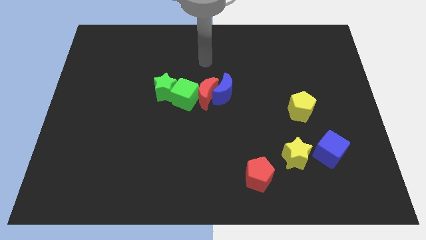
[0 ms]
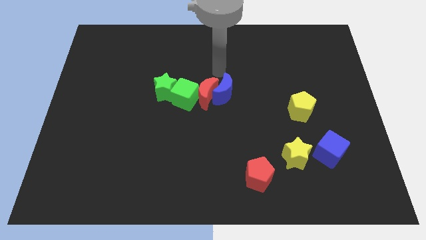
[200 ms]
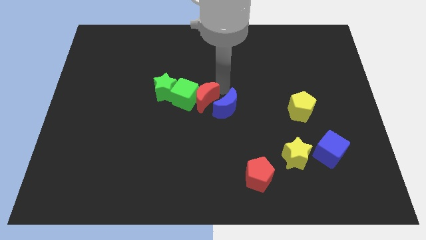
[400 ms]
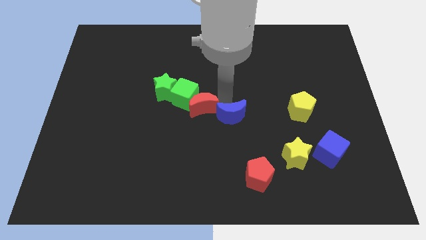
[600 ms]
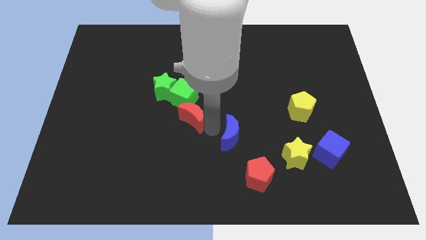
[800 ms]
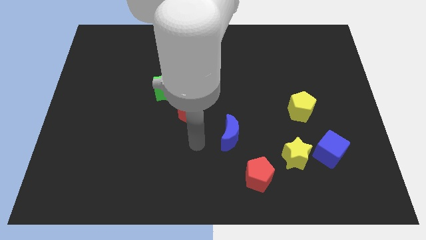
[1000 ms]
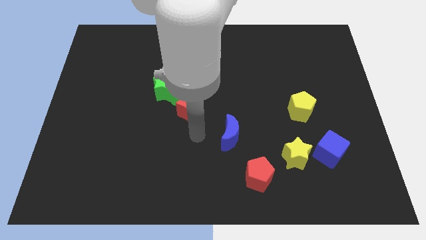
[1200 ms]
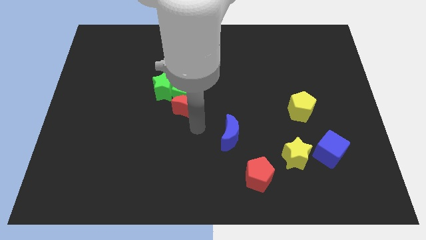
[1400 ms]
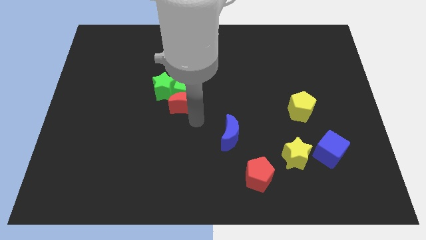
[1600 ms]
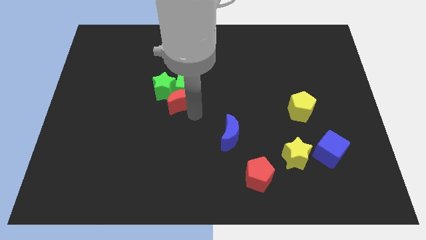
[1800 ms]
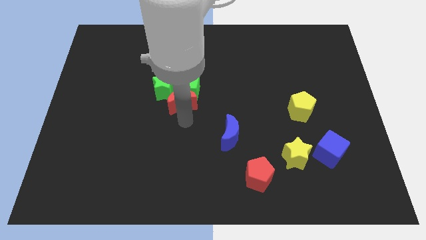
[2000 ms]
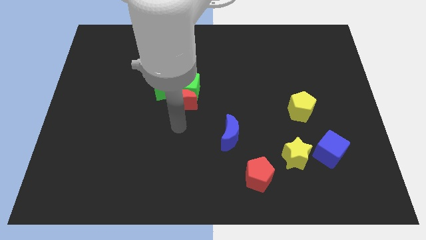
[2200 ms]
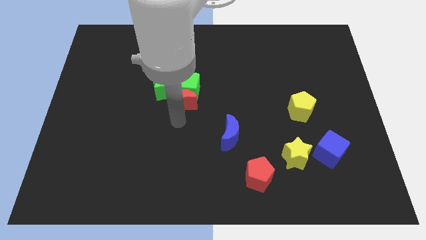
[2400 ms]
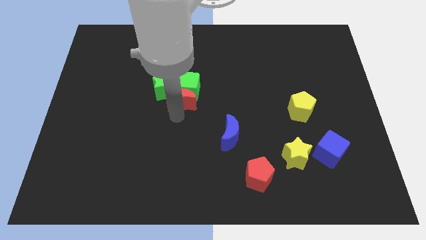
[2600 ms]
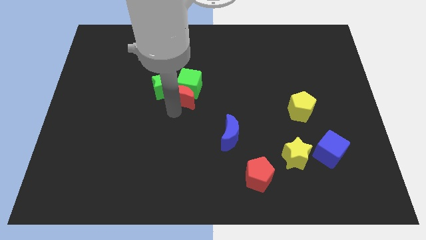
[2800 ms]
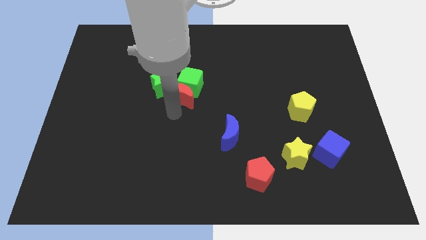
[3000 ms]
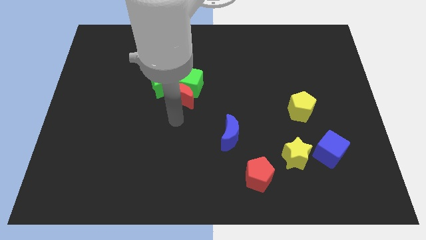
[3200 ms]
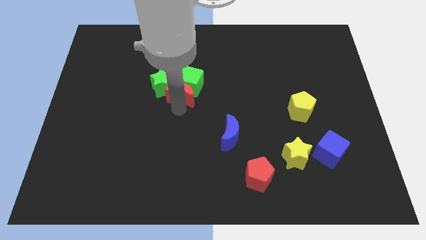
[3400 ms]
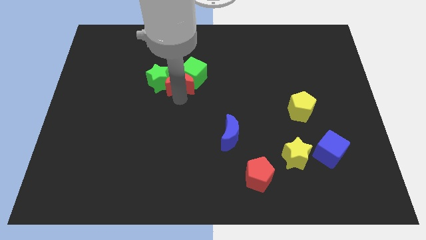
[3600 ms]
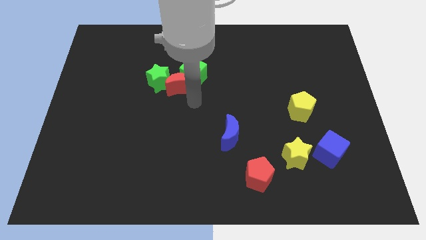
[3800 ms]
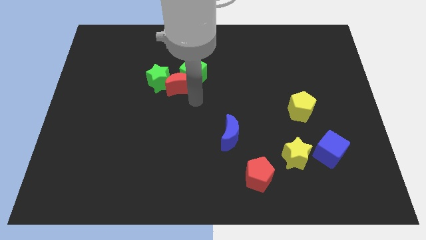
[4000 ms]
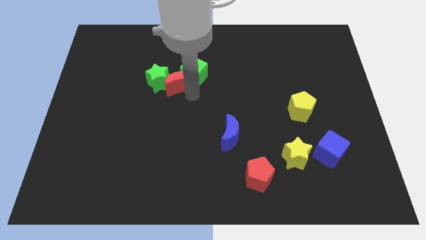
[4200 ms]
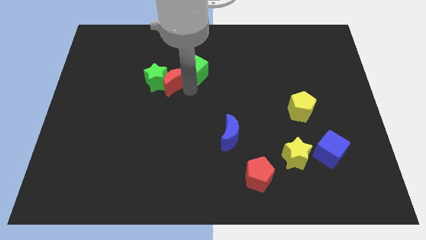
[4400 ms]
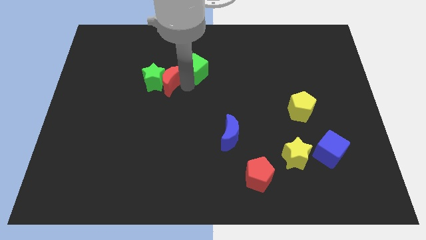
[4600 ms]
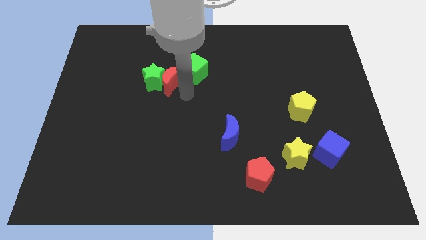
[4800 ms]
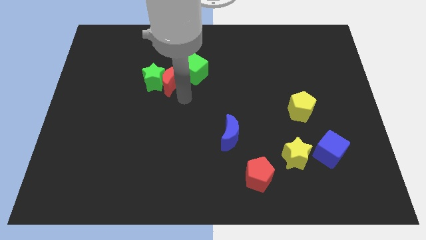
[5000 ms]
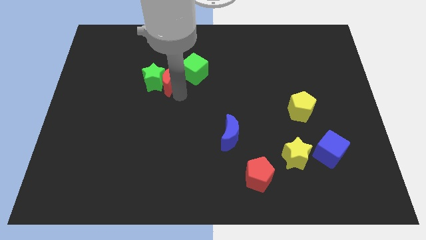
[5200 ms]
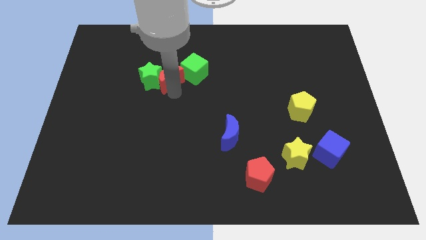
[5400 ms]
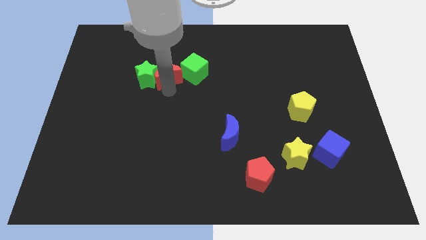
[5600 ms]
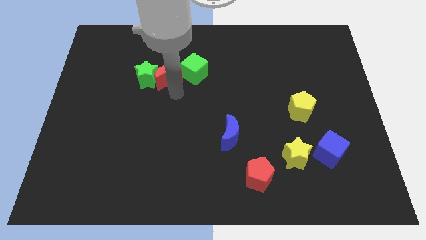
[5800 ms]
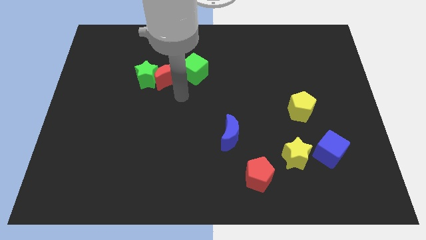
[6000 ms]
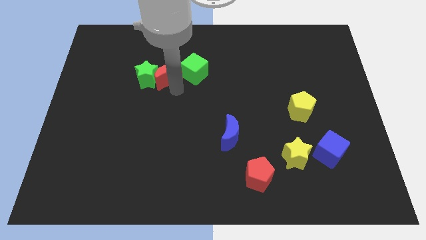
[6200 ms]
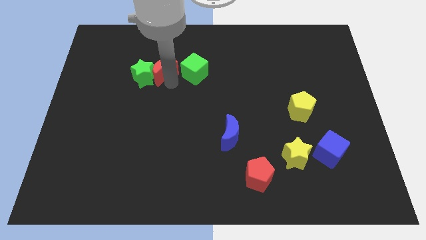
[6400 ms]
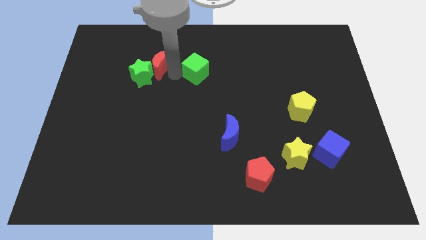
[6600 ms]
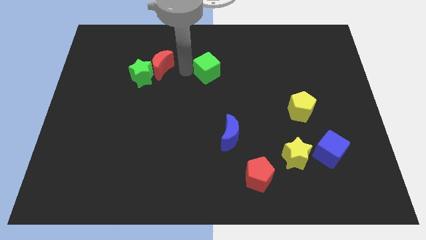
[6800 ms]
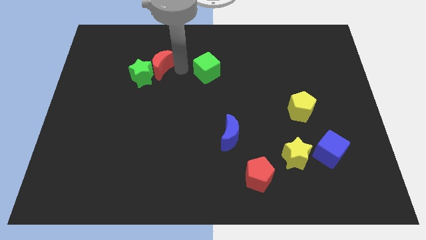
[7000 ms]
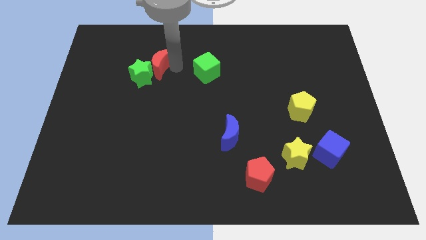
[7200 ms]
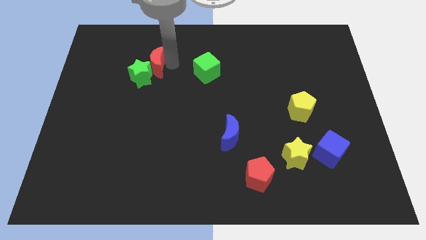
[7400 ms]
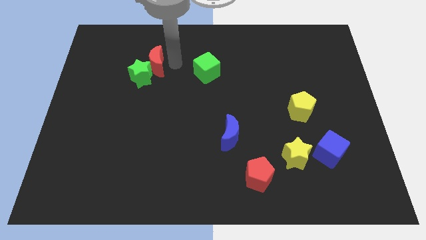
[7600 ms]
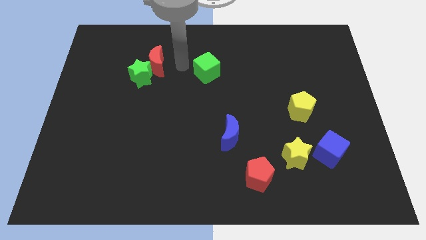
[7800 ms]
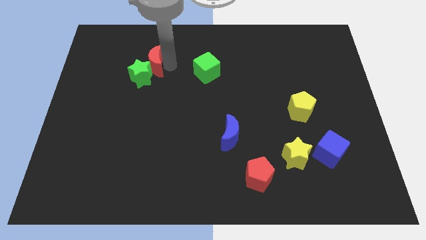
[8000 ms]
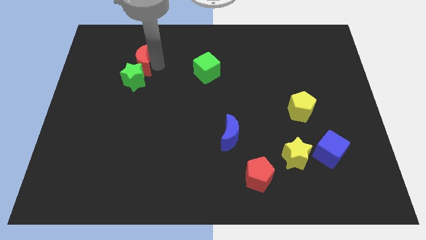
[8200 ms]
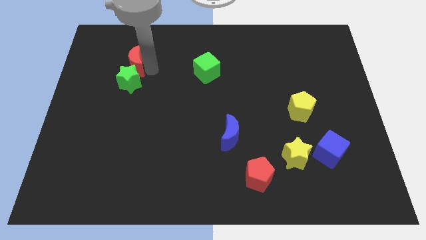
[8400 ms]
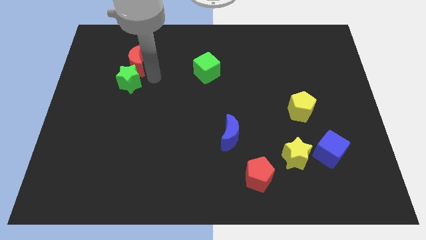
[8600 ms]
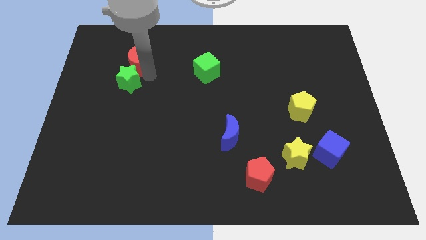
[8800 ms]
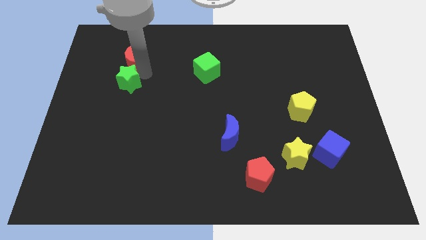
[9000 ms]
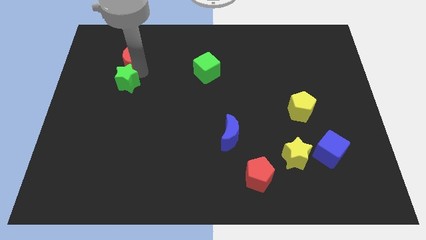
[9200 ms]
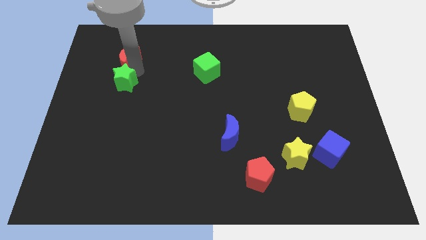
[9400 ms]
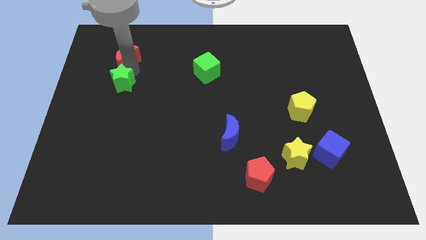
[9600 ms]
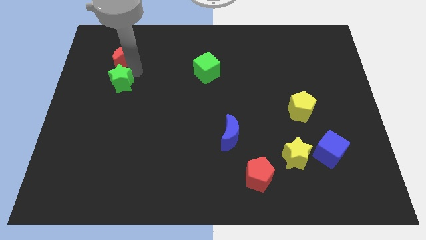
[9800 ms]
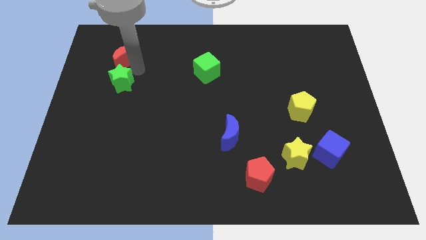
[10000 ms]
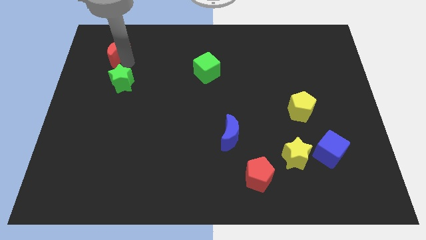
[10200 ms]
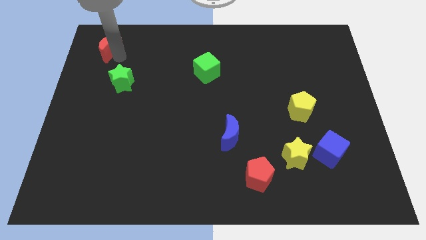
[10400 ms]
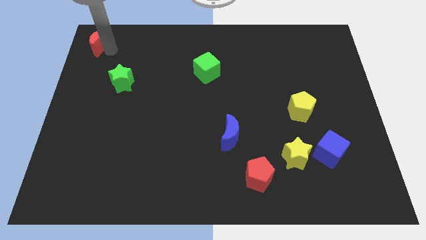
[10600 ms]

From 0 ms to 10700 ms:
move the red moon to the top left corner

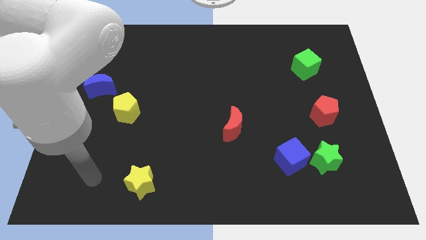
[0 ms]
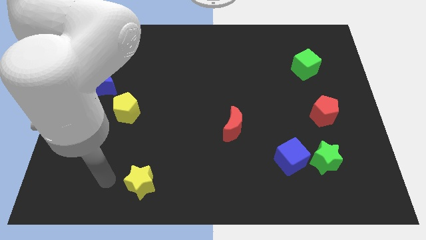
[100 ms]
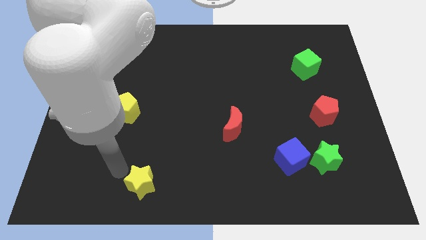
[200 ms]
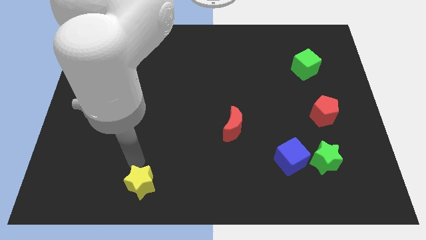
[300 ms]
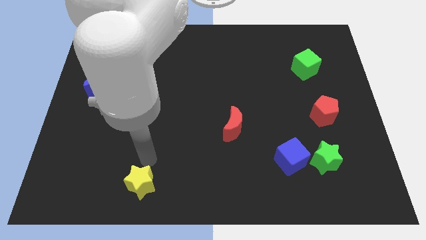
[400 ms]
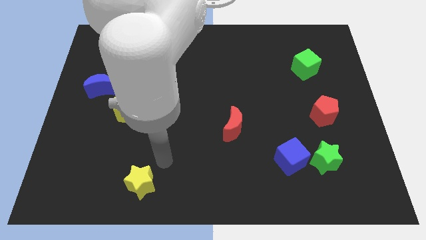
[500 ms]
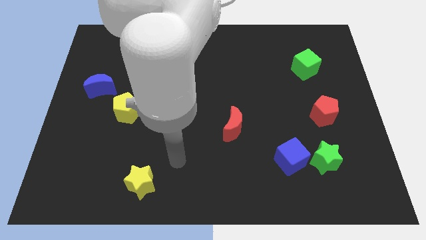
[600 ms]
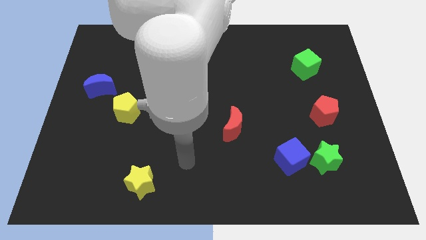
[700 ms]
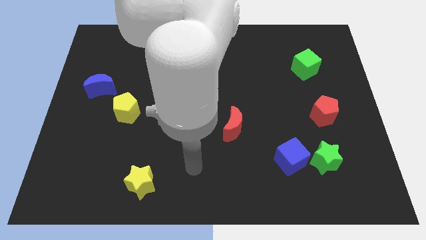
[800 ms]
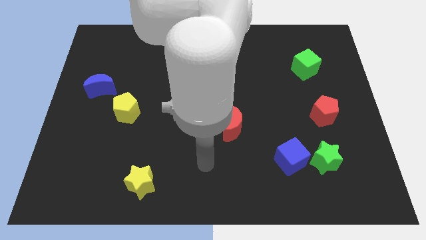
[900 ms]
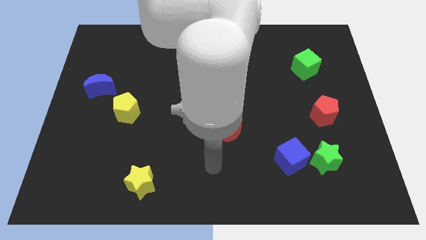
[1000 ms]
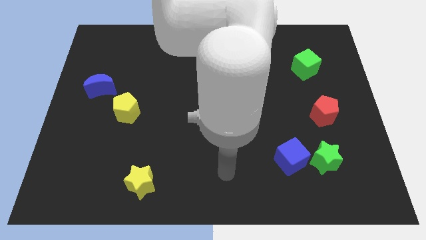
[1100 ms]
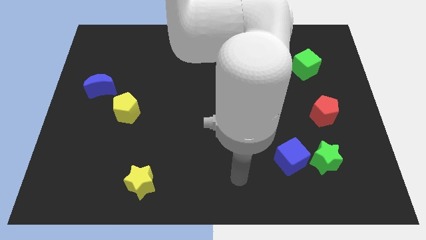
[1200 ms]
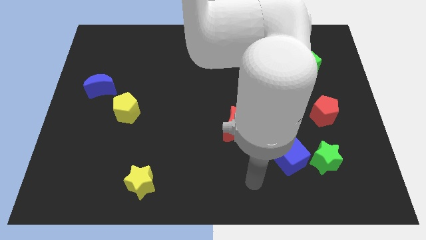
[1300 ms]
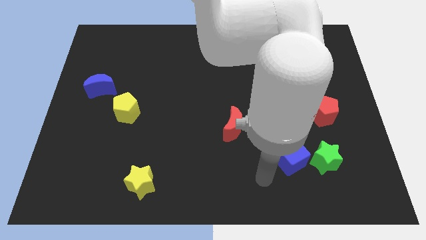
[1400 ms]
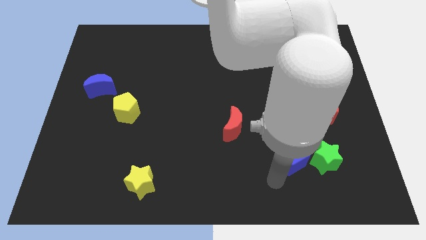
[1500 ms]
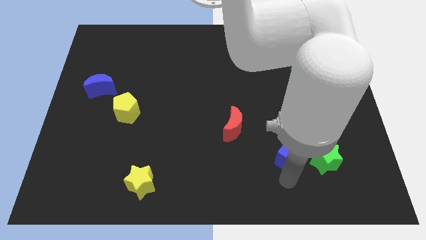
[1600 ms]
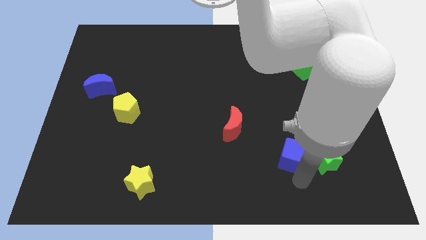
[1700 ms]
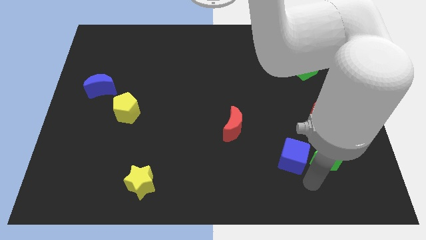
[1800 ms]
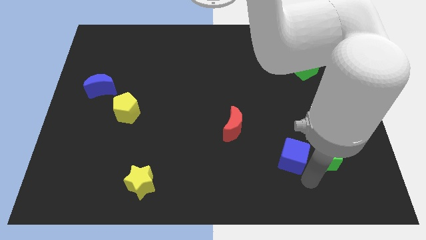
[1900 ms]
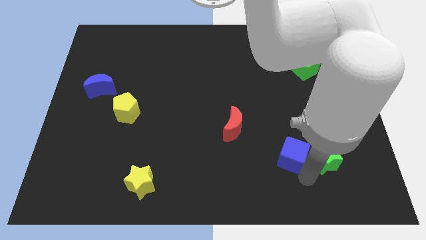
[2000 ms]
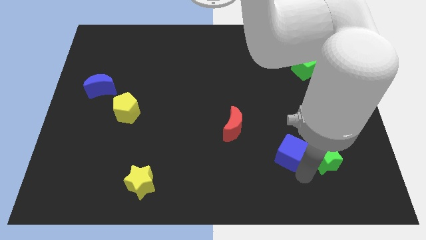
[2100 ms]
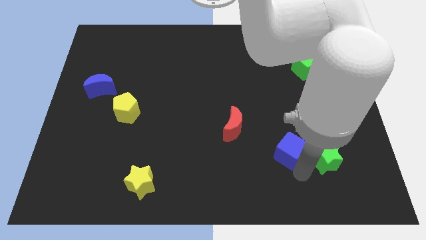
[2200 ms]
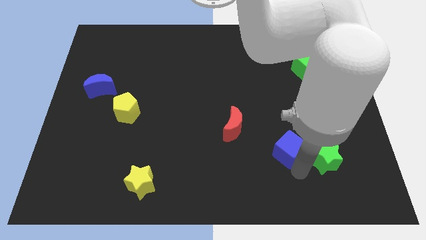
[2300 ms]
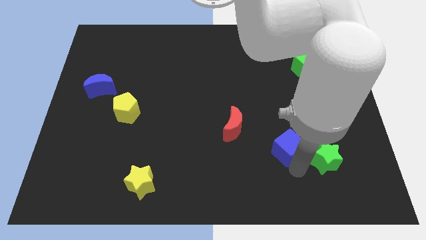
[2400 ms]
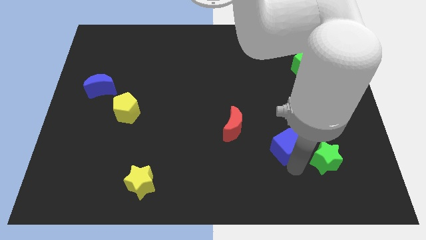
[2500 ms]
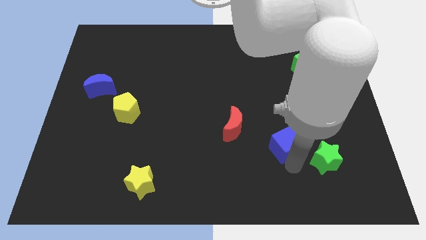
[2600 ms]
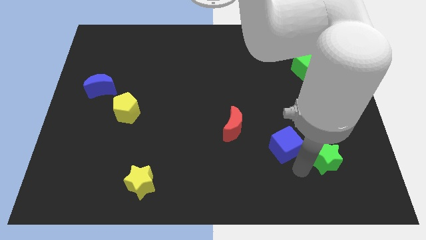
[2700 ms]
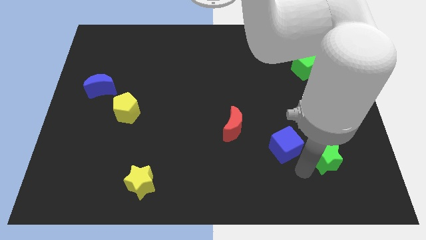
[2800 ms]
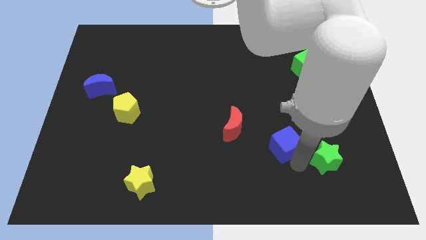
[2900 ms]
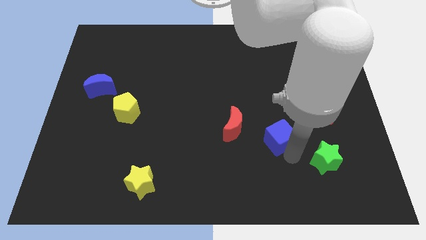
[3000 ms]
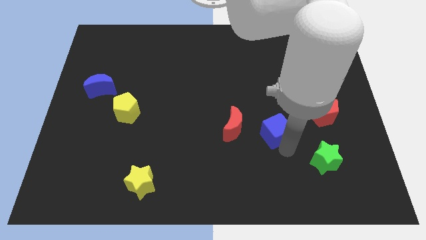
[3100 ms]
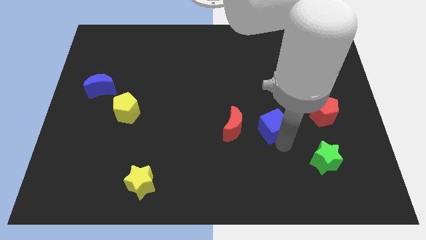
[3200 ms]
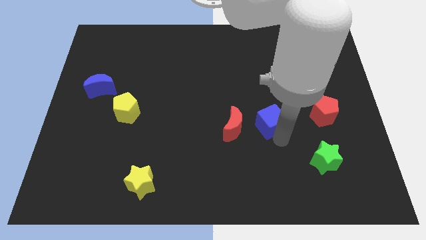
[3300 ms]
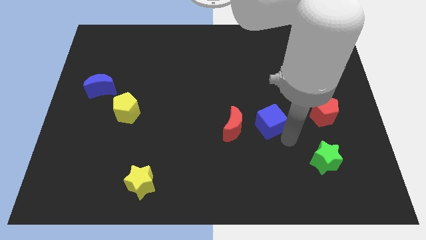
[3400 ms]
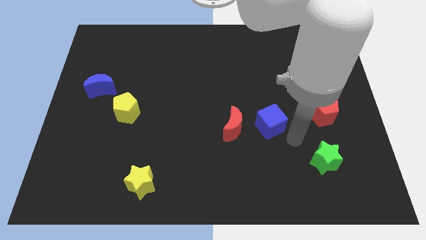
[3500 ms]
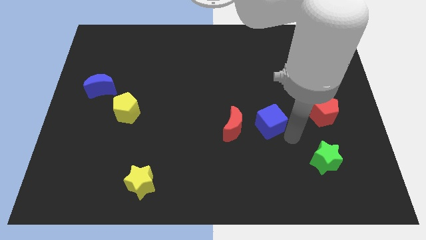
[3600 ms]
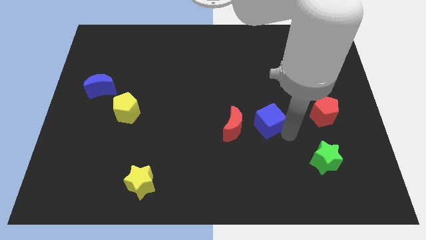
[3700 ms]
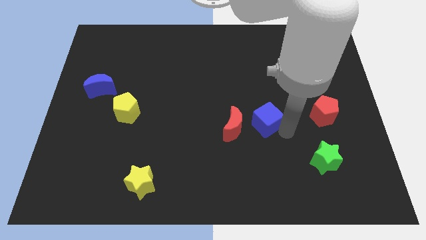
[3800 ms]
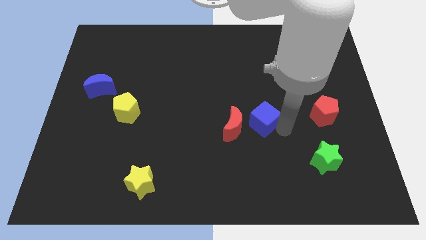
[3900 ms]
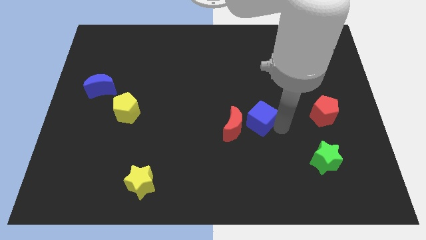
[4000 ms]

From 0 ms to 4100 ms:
slide the blue cube to the center
